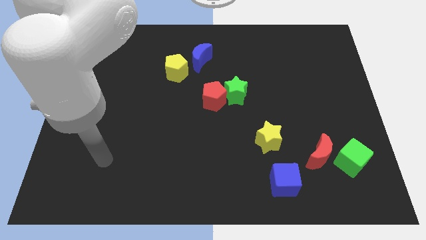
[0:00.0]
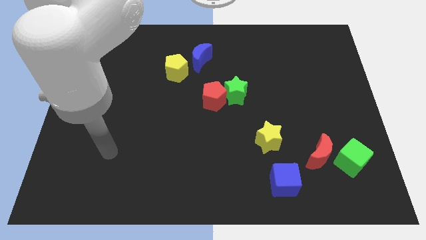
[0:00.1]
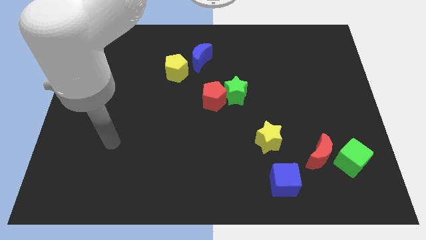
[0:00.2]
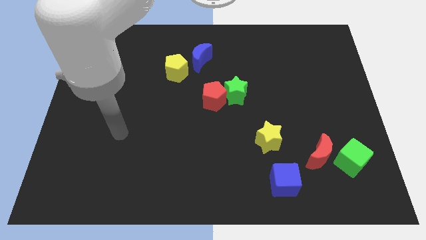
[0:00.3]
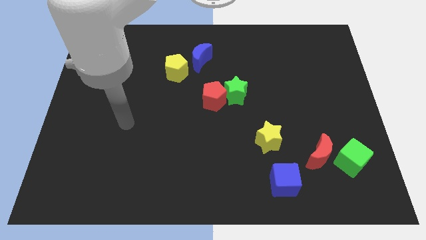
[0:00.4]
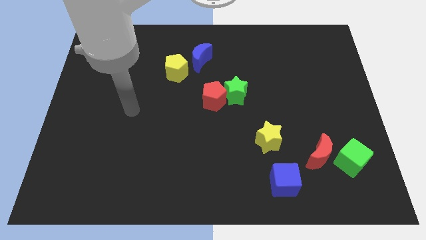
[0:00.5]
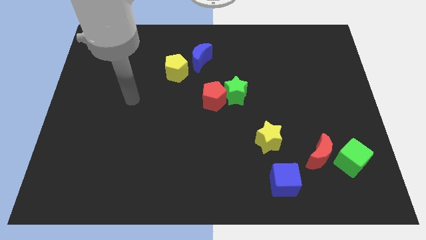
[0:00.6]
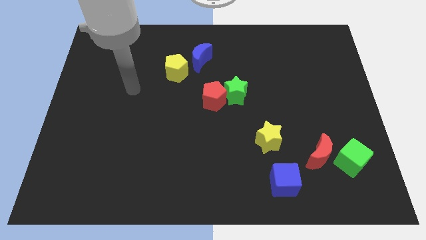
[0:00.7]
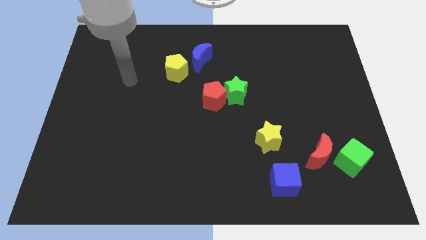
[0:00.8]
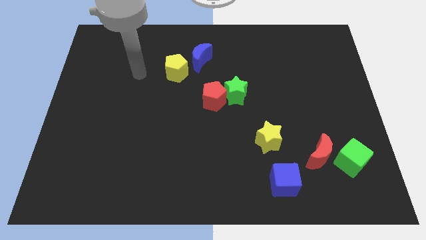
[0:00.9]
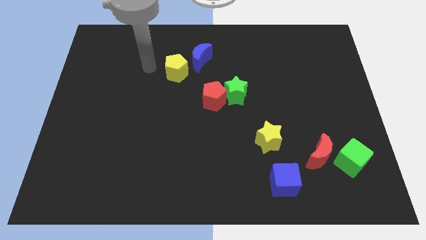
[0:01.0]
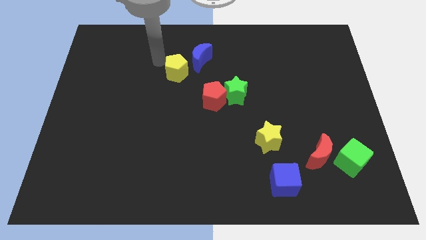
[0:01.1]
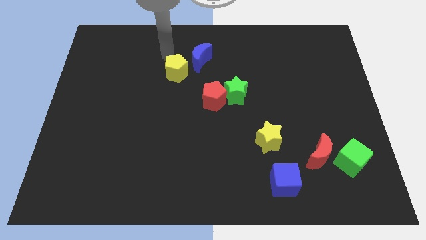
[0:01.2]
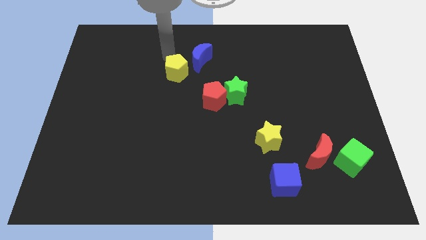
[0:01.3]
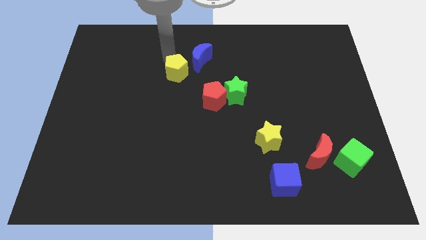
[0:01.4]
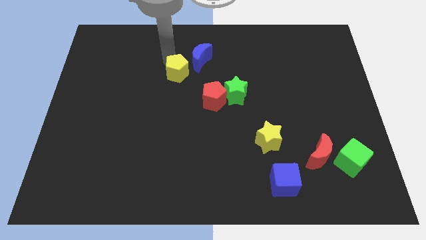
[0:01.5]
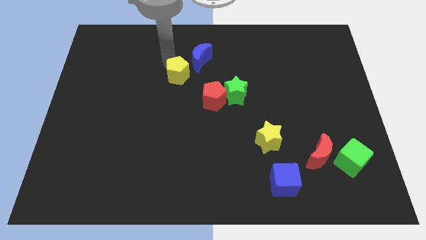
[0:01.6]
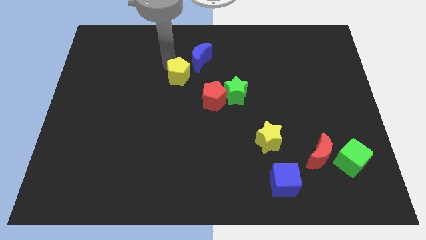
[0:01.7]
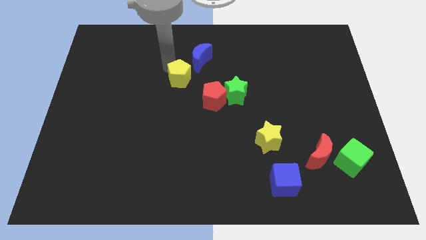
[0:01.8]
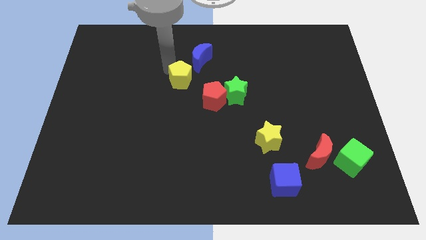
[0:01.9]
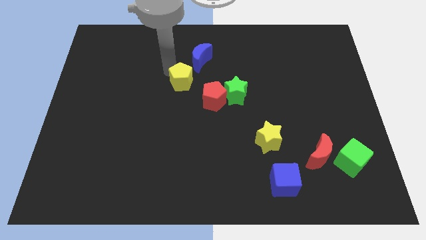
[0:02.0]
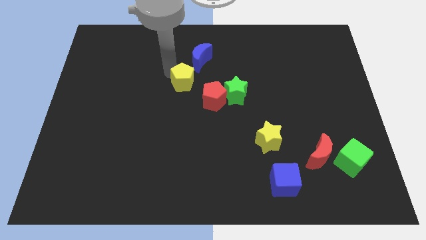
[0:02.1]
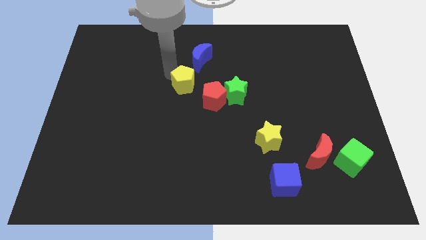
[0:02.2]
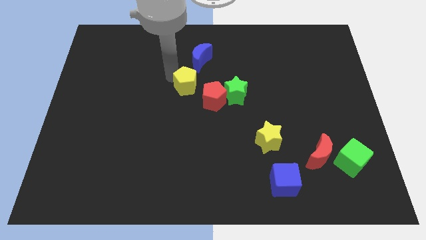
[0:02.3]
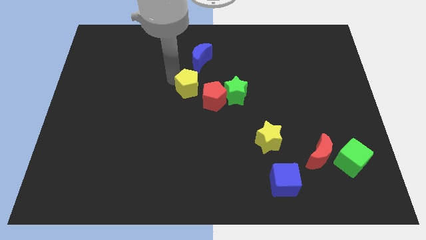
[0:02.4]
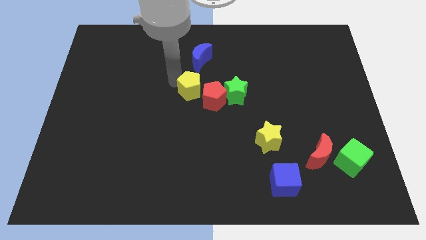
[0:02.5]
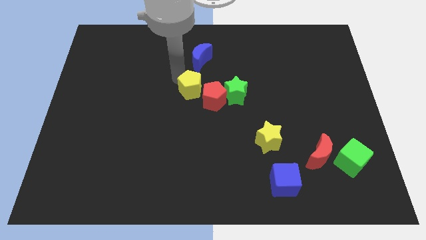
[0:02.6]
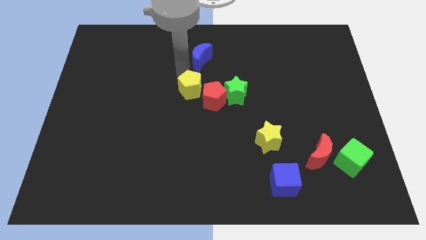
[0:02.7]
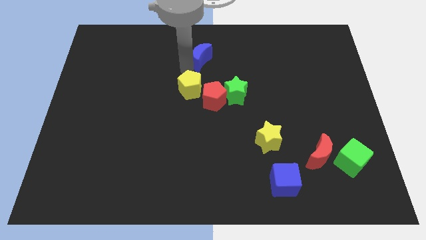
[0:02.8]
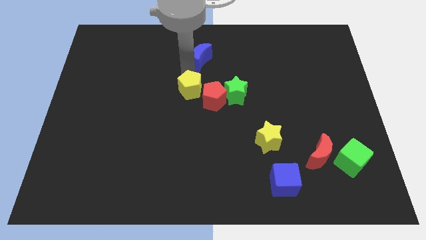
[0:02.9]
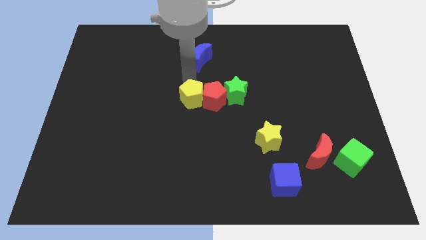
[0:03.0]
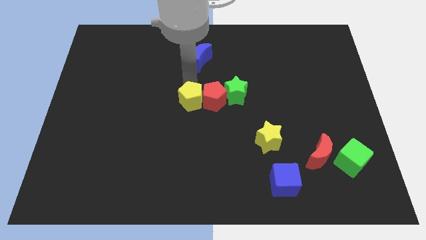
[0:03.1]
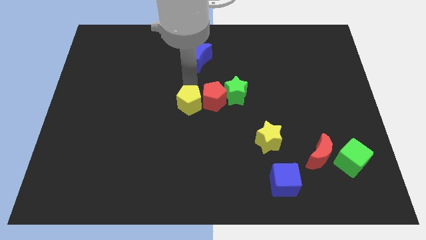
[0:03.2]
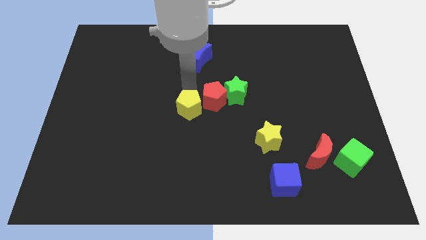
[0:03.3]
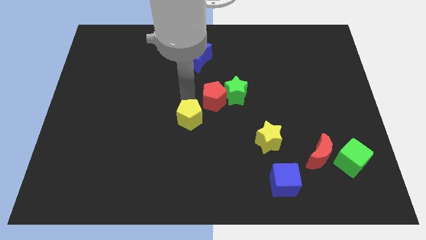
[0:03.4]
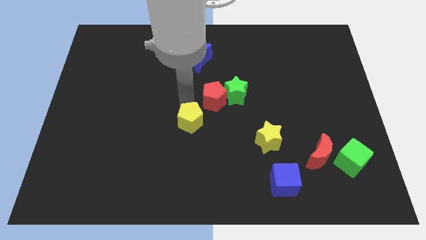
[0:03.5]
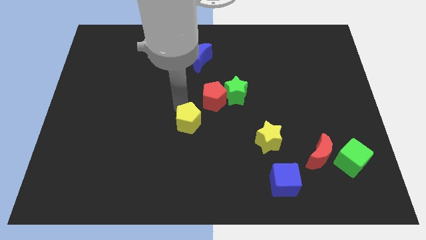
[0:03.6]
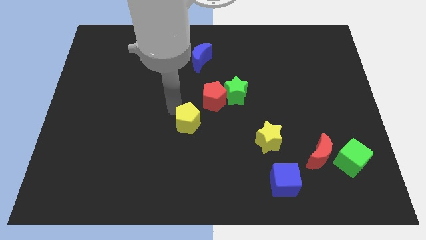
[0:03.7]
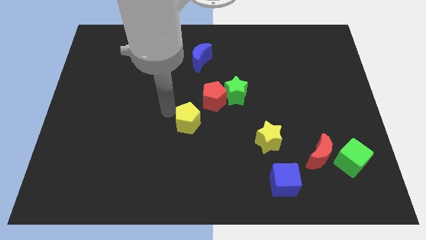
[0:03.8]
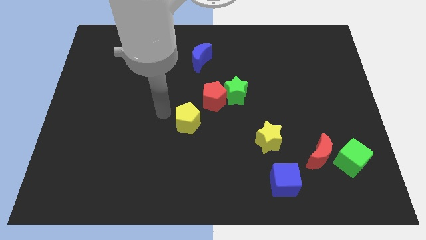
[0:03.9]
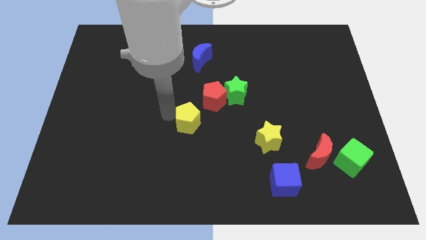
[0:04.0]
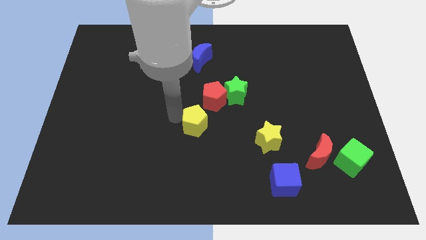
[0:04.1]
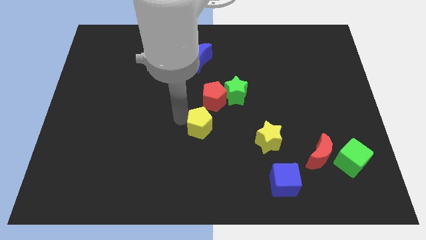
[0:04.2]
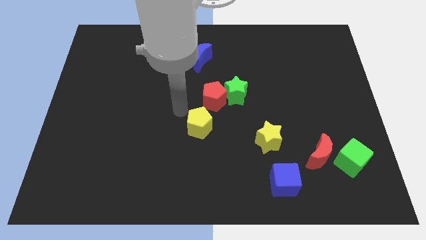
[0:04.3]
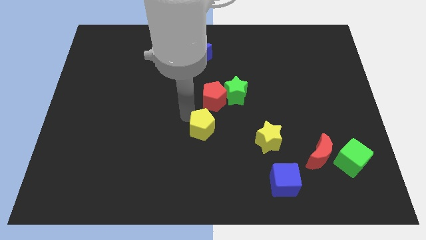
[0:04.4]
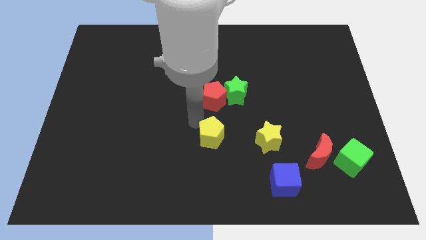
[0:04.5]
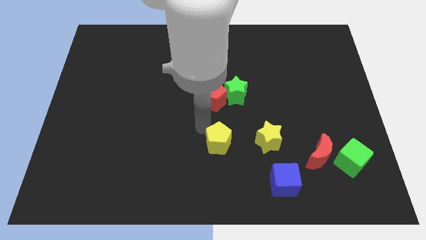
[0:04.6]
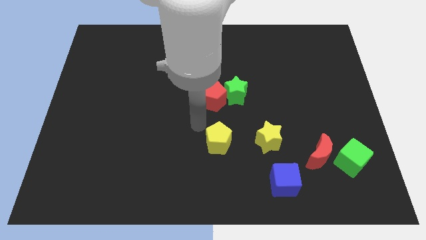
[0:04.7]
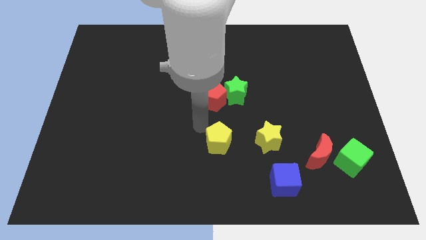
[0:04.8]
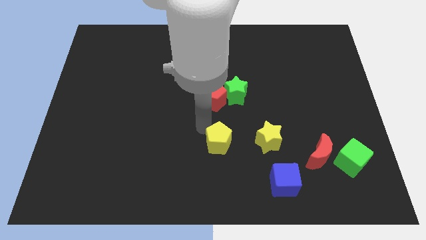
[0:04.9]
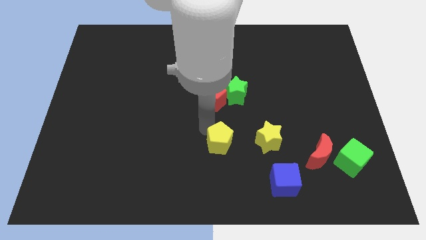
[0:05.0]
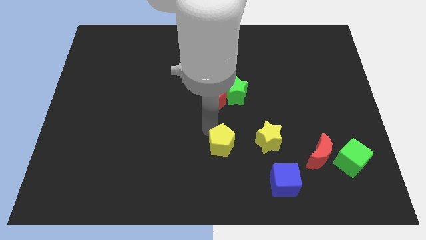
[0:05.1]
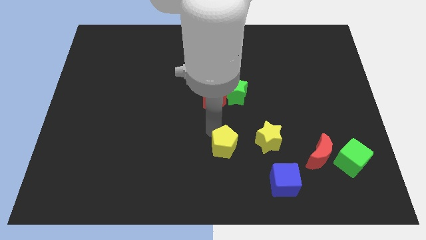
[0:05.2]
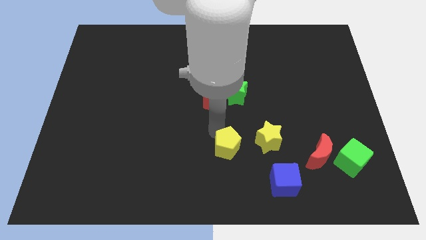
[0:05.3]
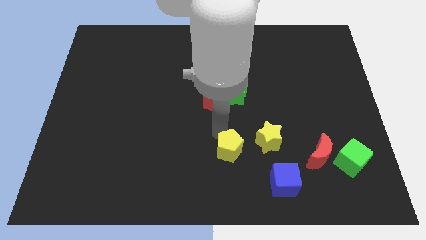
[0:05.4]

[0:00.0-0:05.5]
slide the yellow pentagon diagonally down and to the left of the yellow star

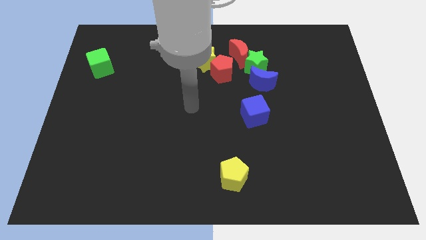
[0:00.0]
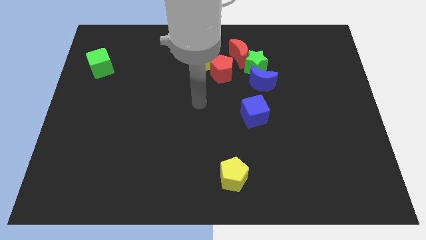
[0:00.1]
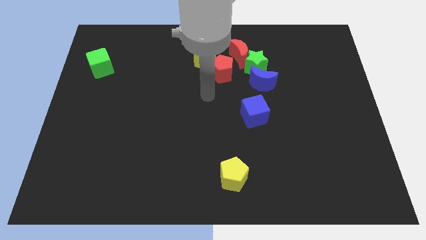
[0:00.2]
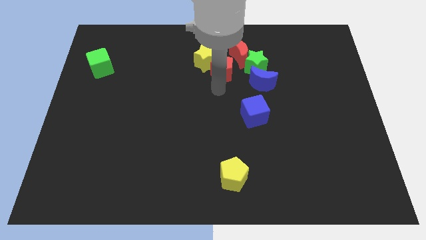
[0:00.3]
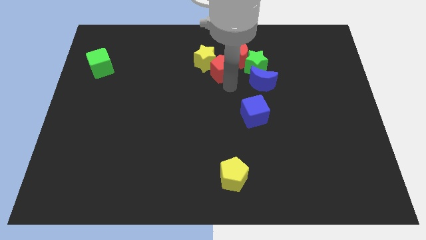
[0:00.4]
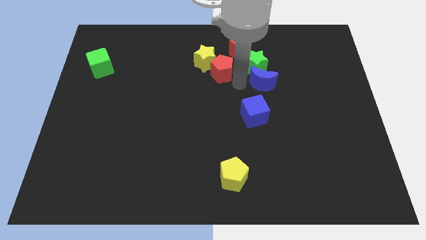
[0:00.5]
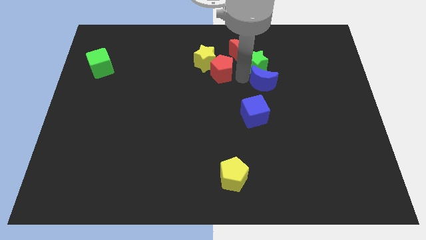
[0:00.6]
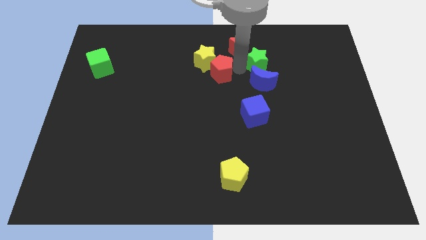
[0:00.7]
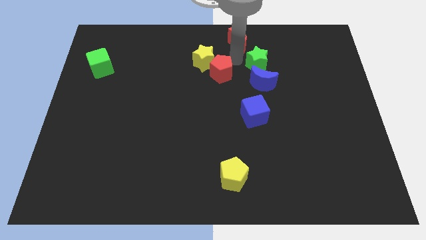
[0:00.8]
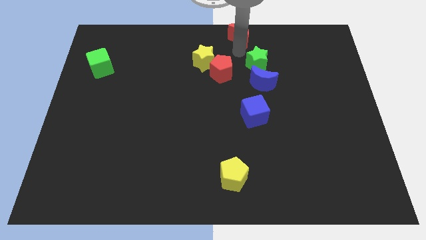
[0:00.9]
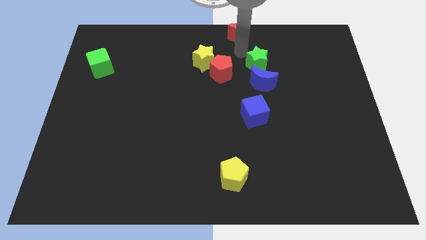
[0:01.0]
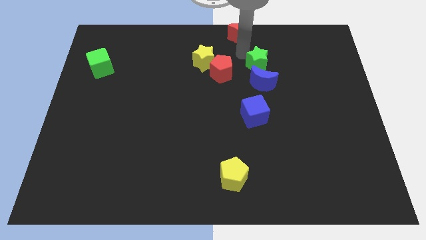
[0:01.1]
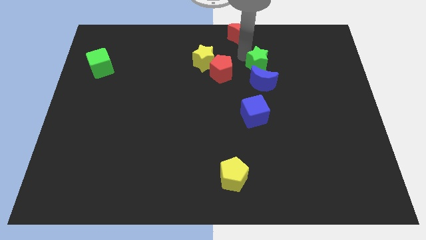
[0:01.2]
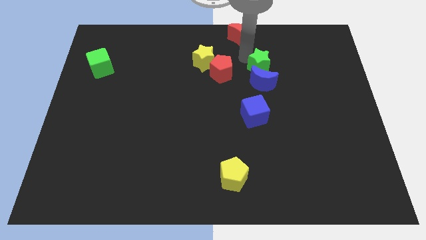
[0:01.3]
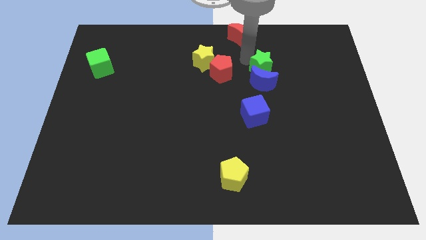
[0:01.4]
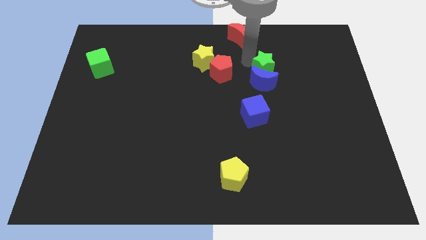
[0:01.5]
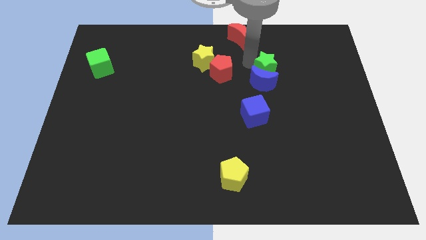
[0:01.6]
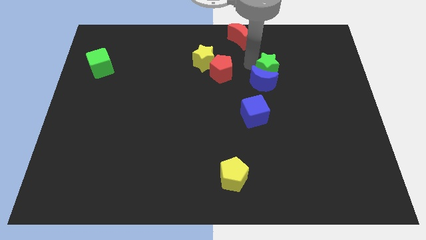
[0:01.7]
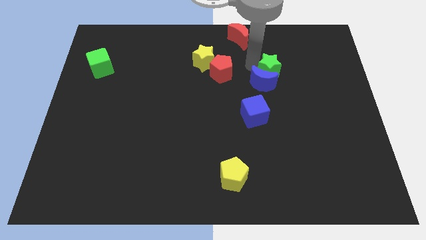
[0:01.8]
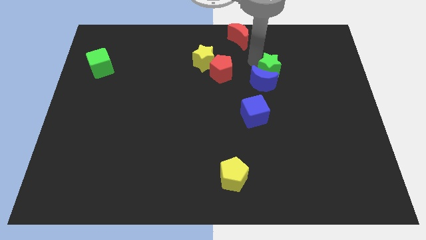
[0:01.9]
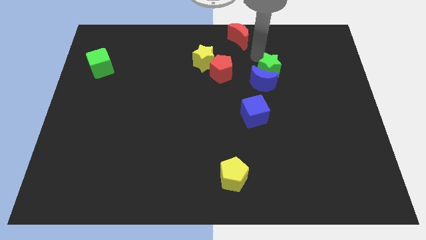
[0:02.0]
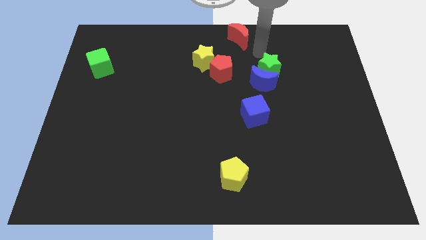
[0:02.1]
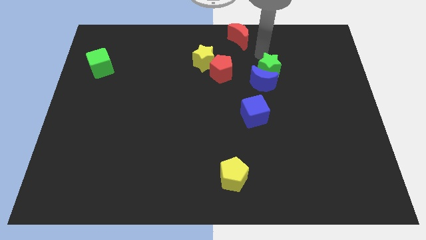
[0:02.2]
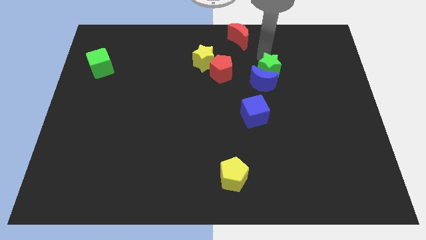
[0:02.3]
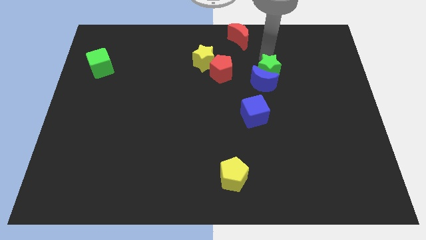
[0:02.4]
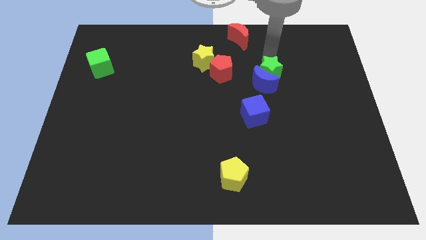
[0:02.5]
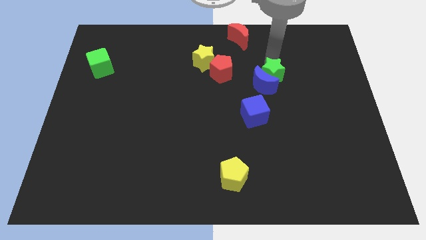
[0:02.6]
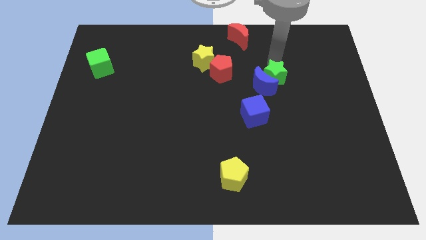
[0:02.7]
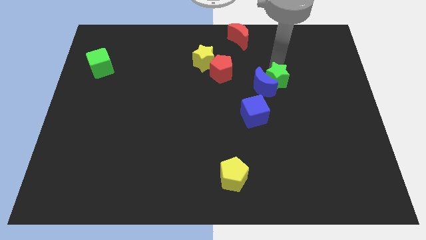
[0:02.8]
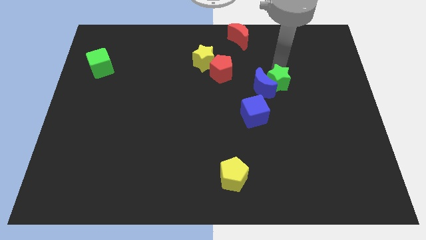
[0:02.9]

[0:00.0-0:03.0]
put the green star to the bottom right of the blue moon
